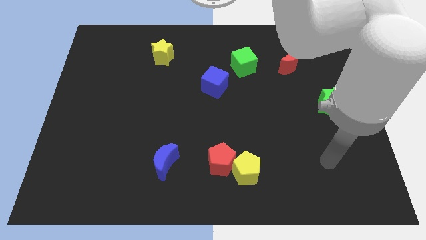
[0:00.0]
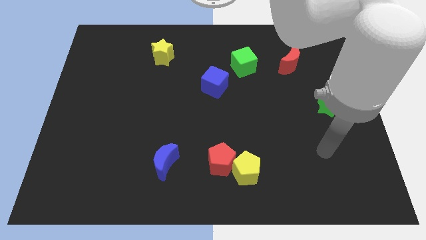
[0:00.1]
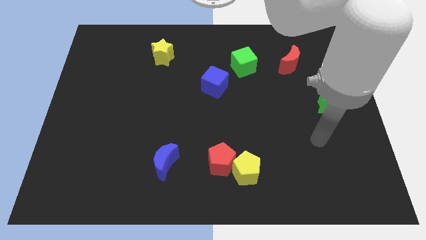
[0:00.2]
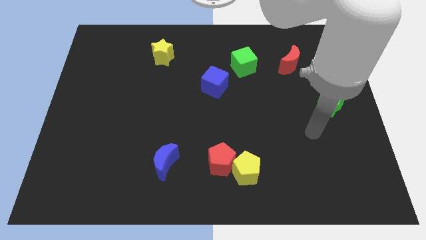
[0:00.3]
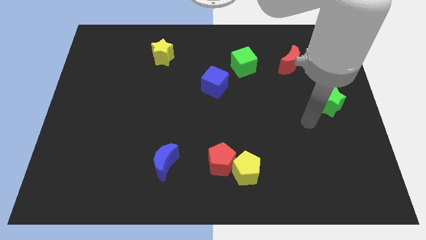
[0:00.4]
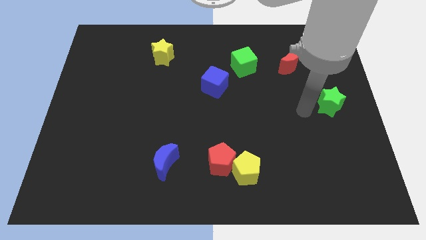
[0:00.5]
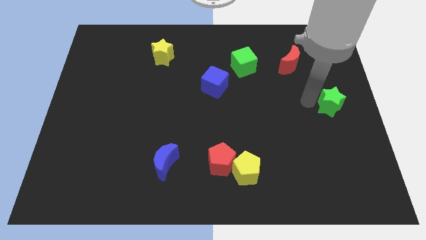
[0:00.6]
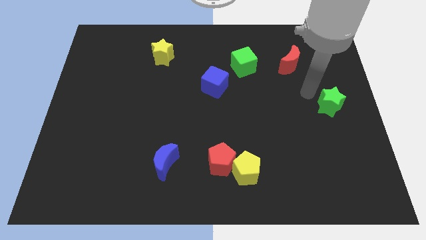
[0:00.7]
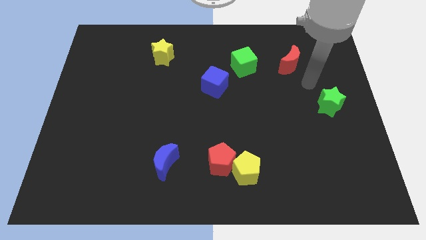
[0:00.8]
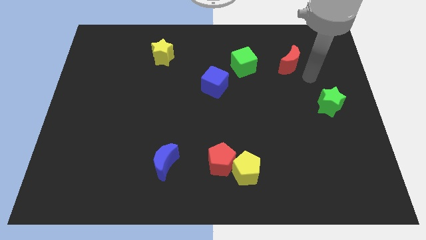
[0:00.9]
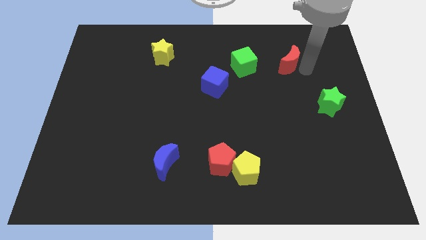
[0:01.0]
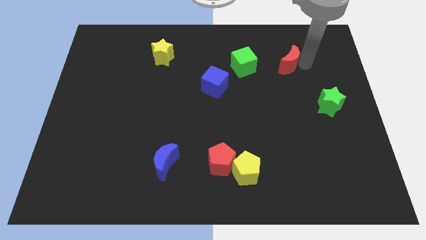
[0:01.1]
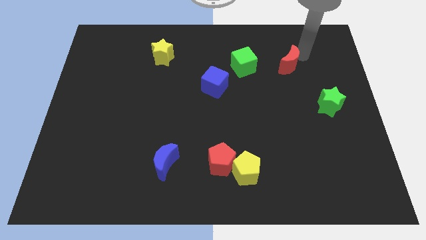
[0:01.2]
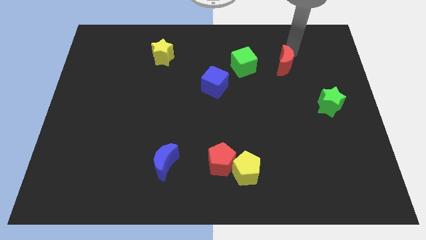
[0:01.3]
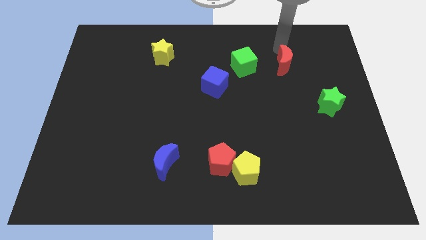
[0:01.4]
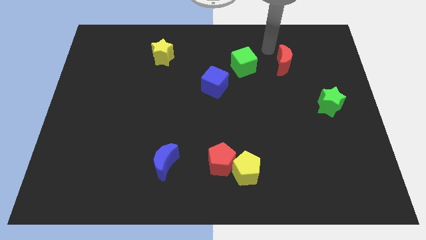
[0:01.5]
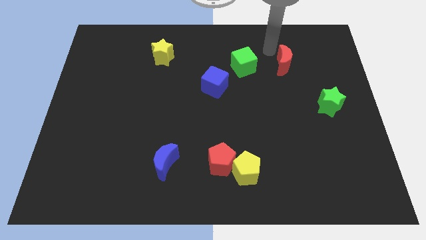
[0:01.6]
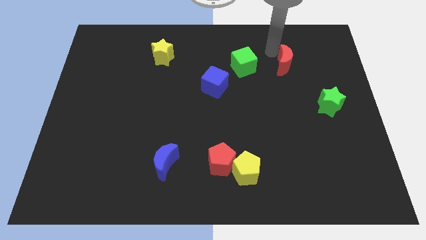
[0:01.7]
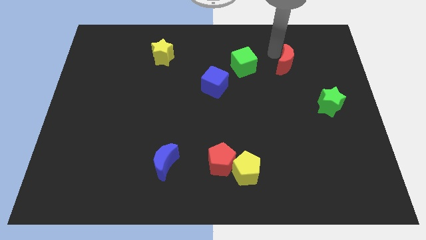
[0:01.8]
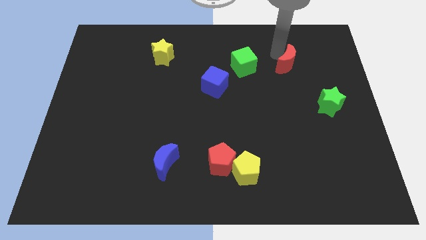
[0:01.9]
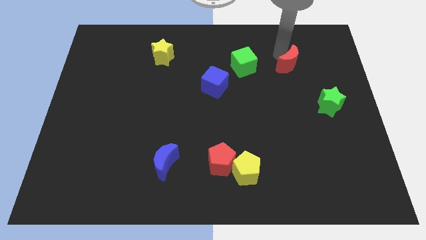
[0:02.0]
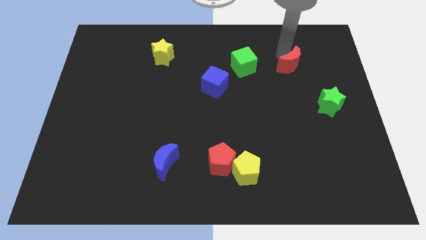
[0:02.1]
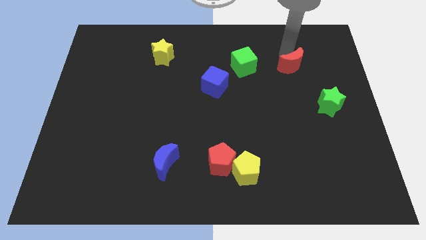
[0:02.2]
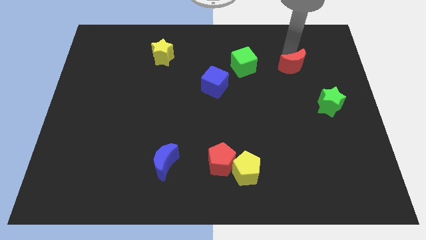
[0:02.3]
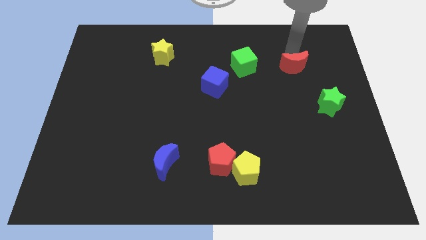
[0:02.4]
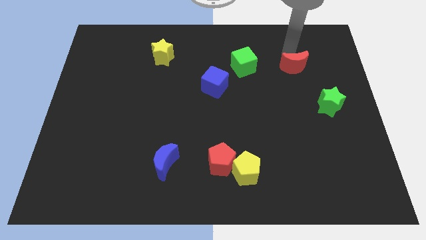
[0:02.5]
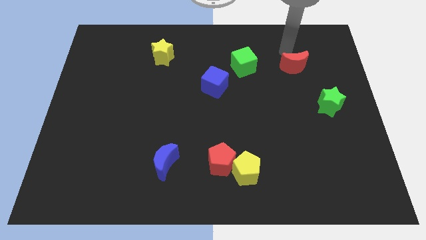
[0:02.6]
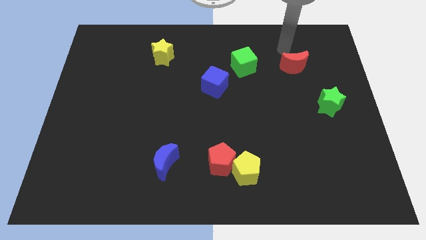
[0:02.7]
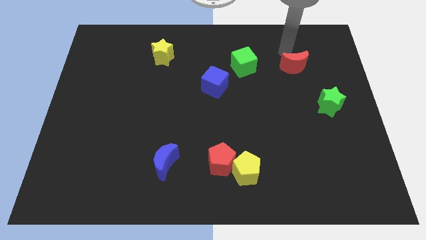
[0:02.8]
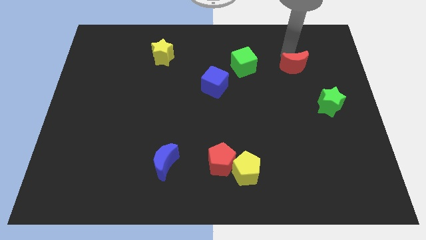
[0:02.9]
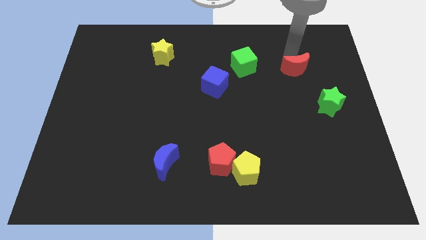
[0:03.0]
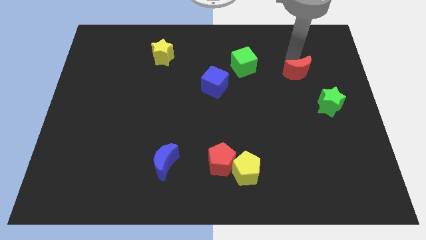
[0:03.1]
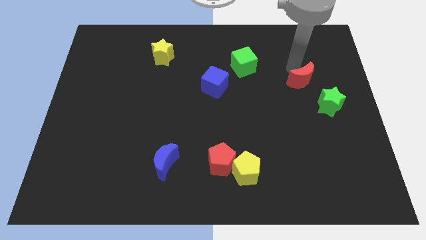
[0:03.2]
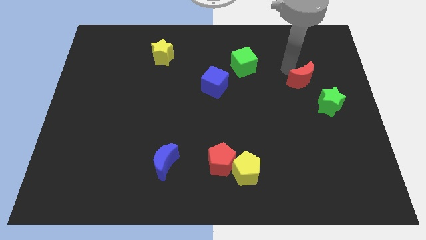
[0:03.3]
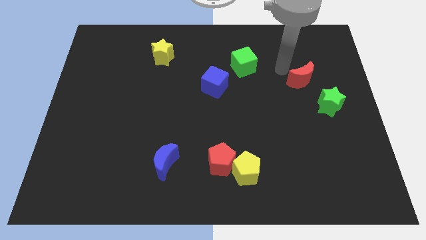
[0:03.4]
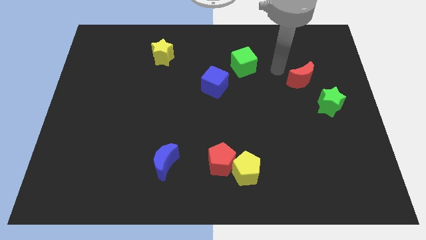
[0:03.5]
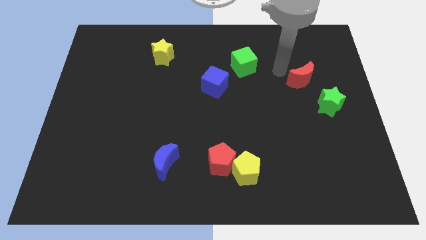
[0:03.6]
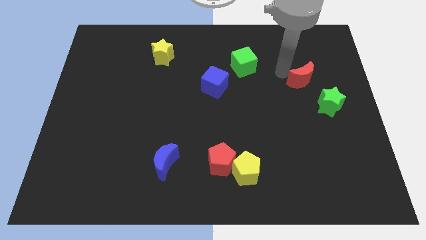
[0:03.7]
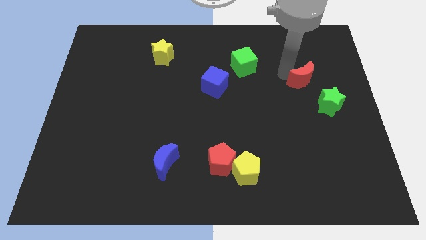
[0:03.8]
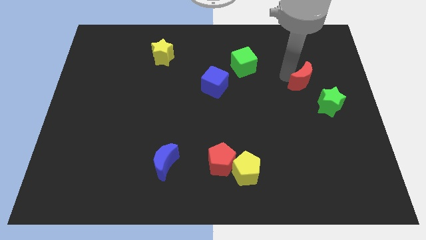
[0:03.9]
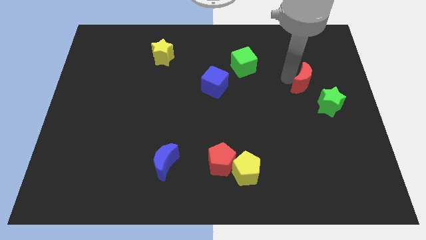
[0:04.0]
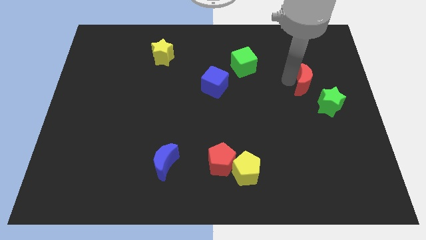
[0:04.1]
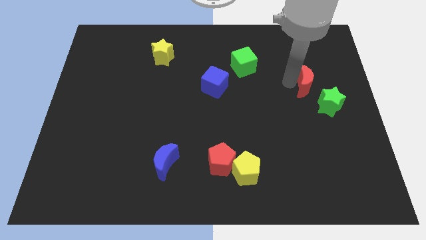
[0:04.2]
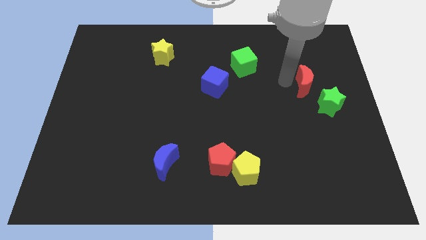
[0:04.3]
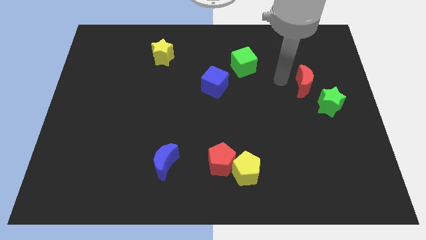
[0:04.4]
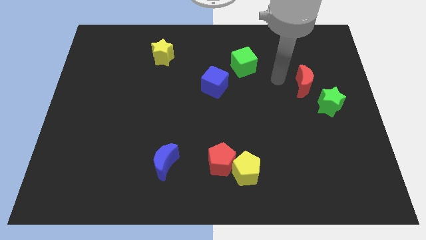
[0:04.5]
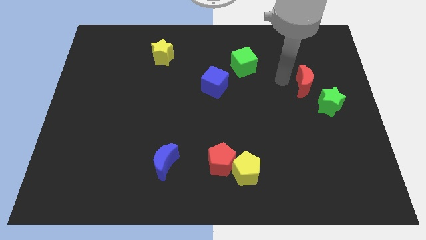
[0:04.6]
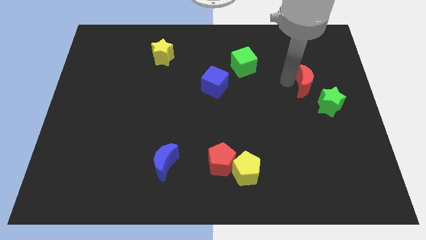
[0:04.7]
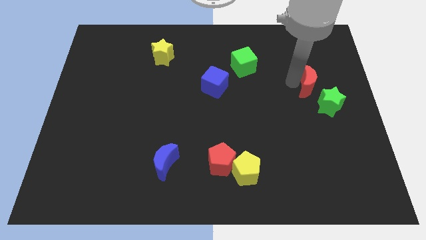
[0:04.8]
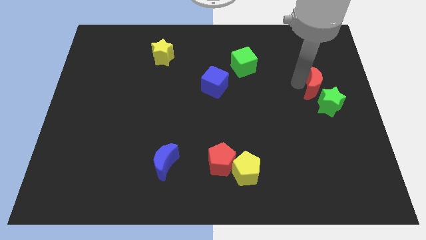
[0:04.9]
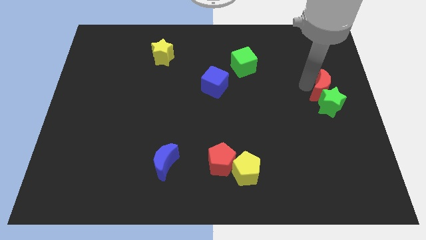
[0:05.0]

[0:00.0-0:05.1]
slide the red moon to the right side

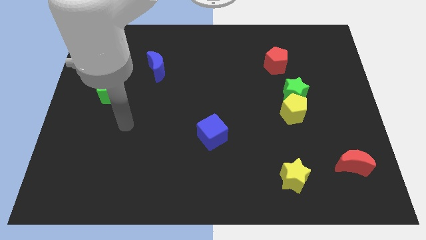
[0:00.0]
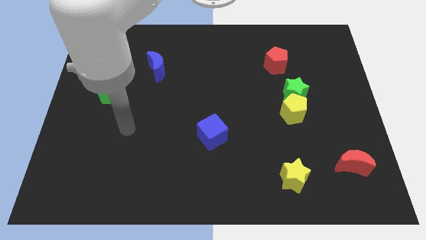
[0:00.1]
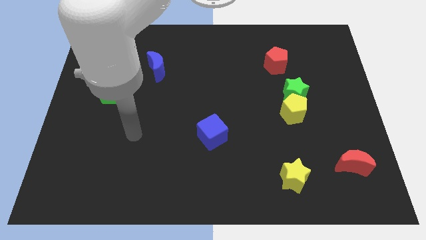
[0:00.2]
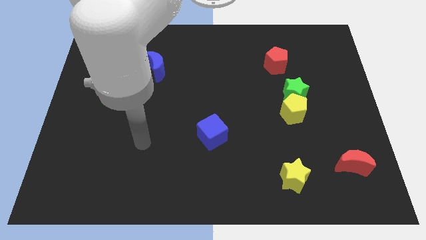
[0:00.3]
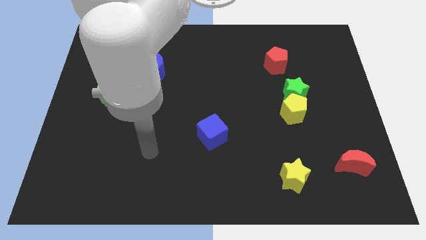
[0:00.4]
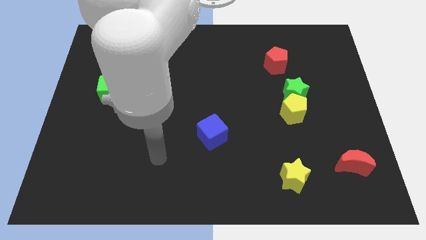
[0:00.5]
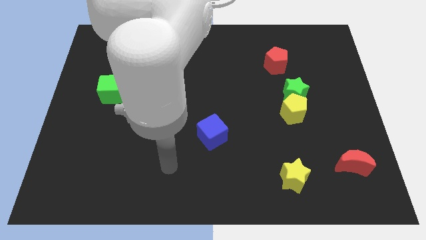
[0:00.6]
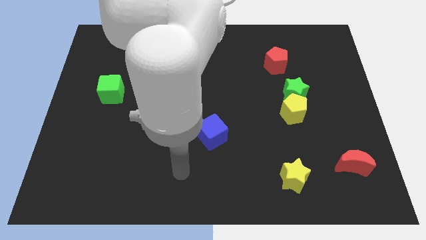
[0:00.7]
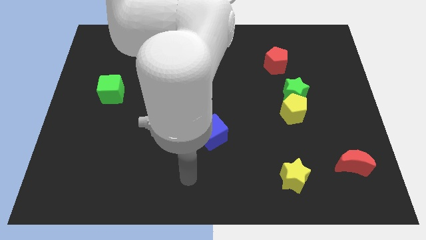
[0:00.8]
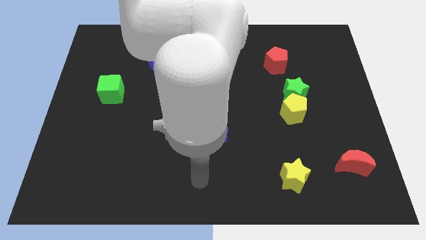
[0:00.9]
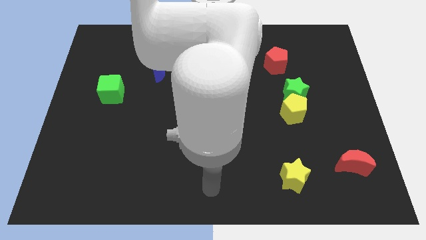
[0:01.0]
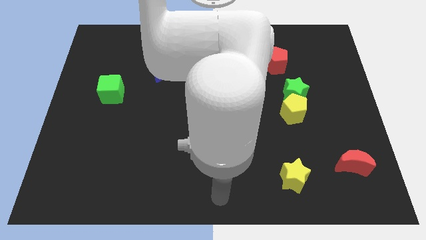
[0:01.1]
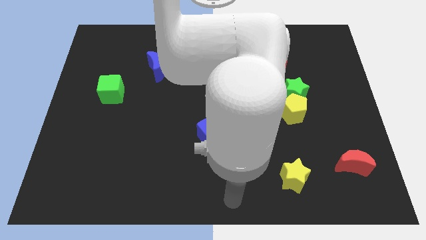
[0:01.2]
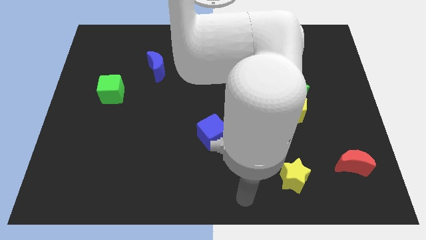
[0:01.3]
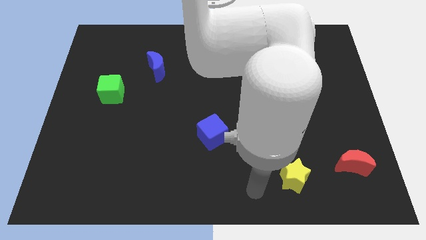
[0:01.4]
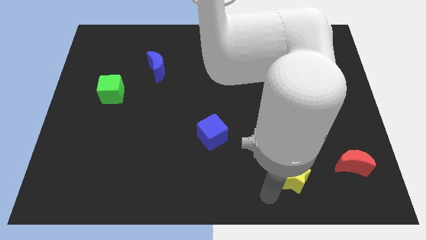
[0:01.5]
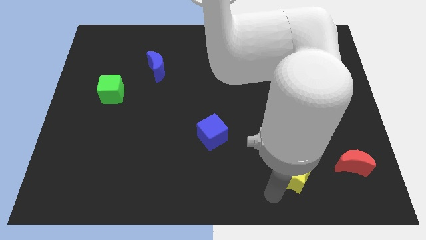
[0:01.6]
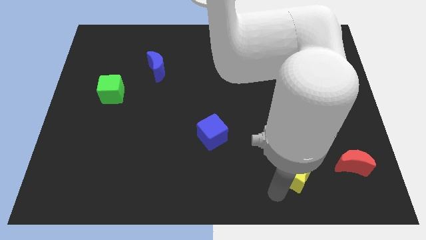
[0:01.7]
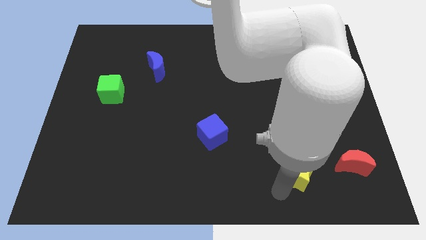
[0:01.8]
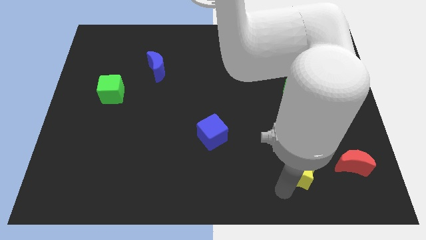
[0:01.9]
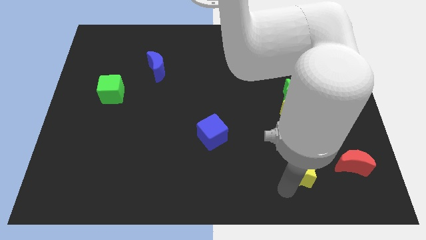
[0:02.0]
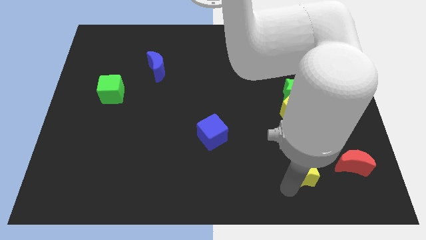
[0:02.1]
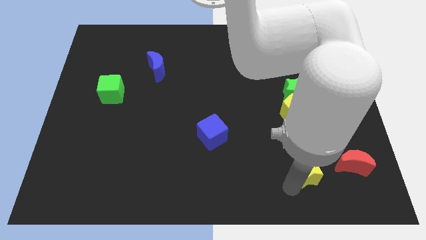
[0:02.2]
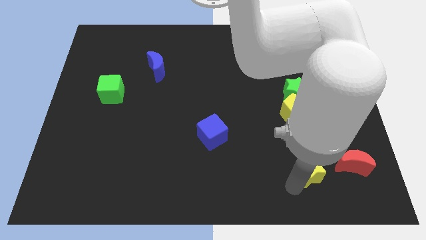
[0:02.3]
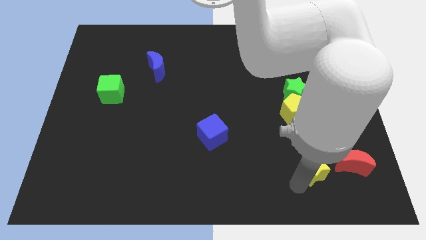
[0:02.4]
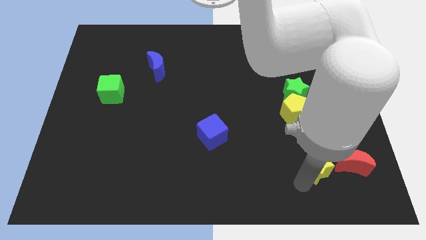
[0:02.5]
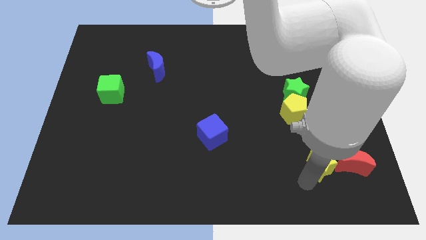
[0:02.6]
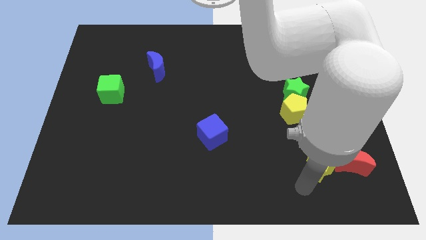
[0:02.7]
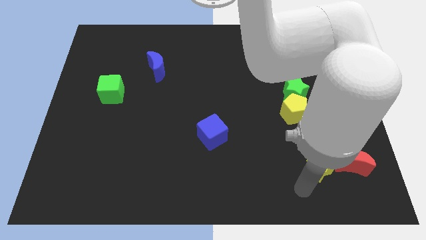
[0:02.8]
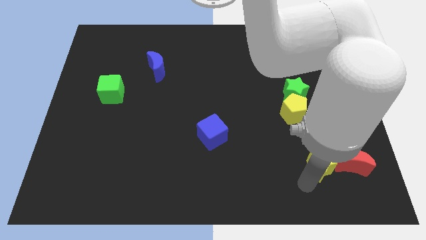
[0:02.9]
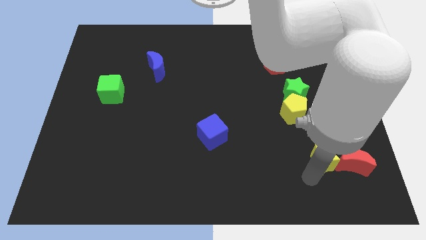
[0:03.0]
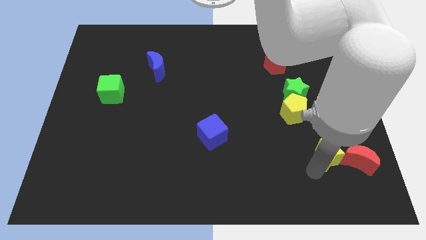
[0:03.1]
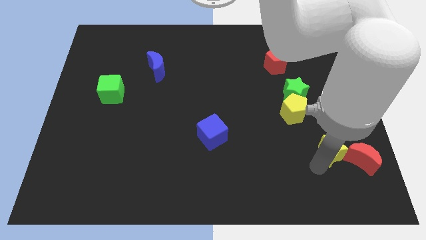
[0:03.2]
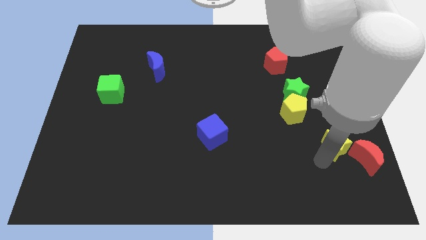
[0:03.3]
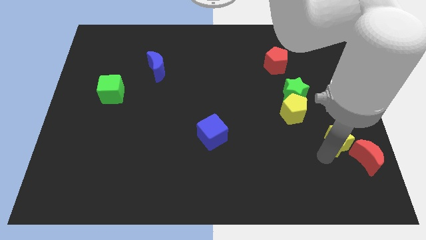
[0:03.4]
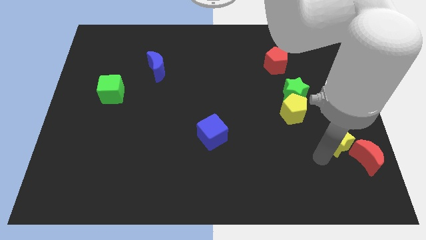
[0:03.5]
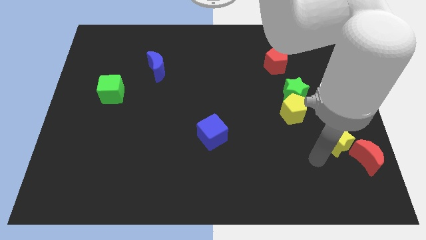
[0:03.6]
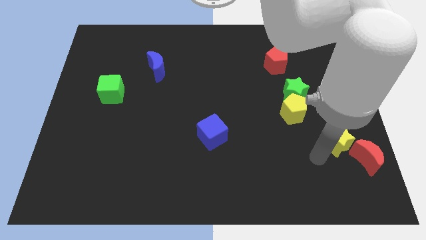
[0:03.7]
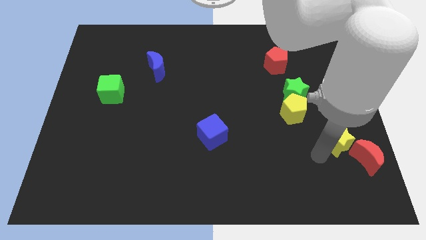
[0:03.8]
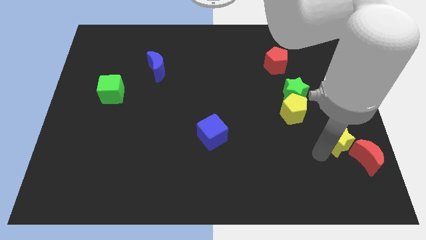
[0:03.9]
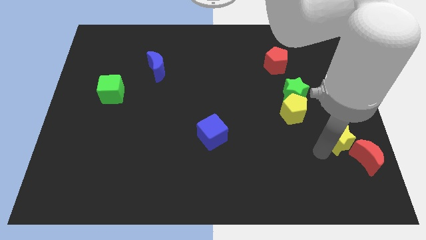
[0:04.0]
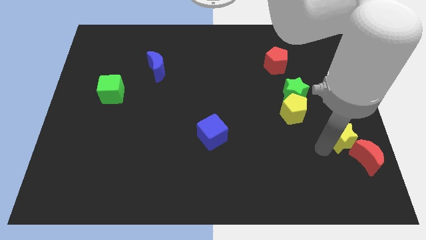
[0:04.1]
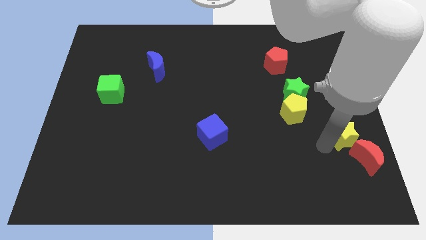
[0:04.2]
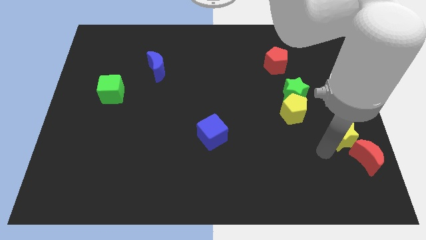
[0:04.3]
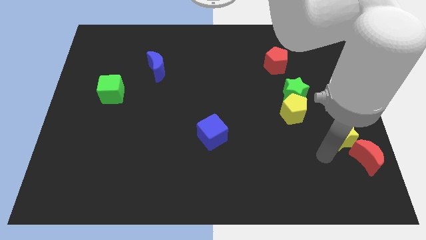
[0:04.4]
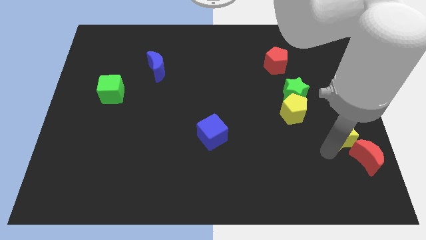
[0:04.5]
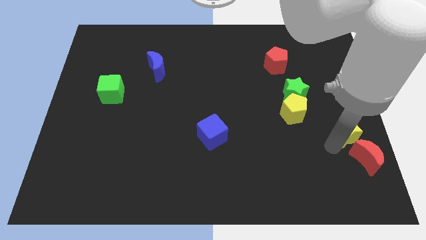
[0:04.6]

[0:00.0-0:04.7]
move the yellow star to the center right
